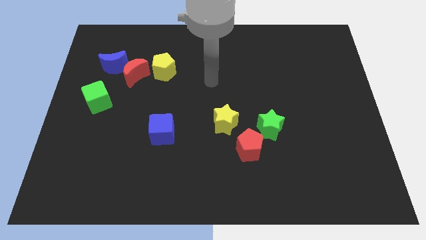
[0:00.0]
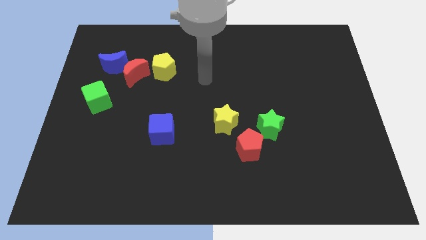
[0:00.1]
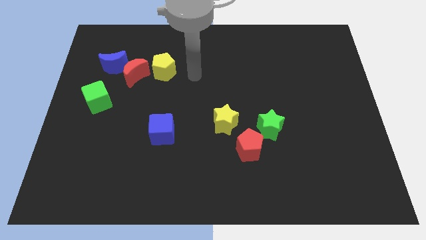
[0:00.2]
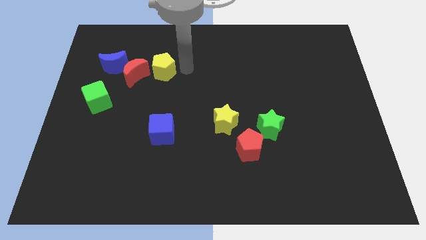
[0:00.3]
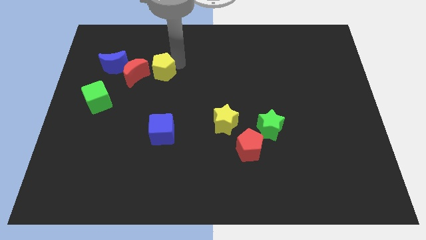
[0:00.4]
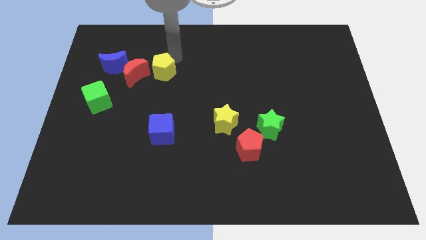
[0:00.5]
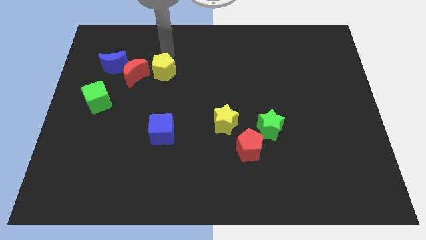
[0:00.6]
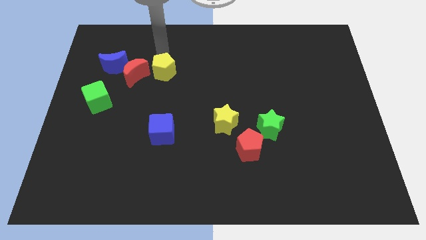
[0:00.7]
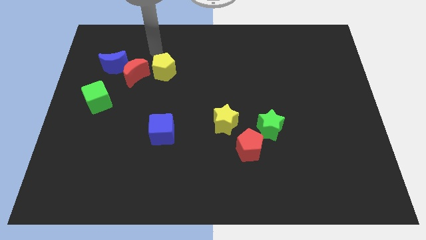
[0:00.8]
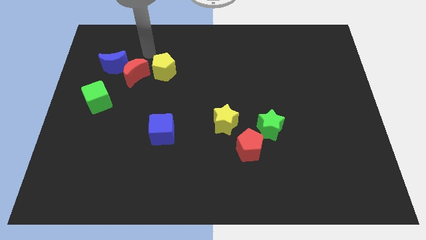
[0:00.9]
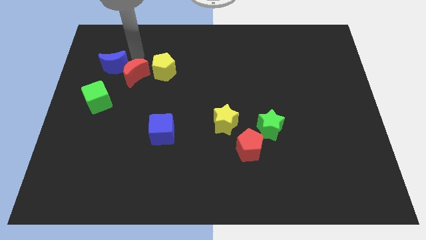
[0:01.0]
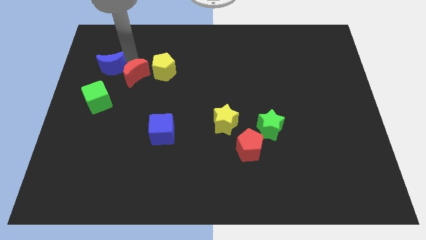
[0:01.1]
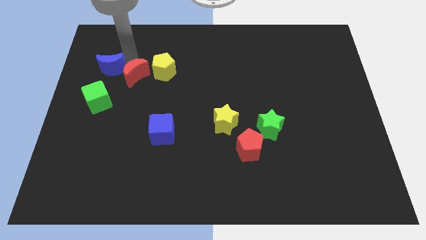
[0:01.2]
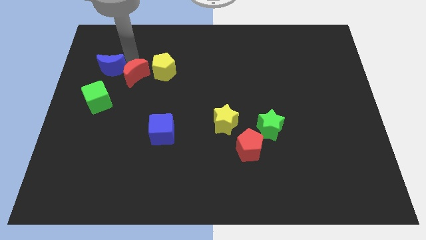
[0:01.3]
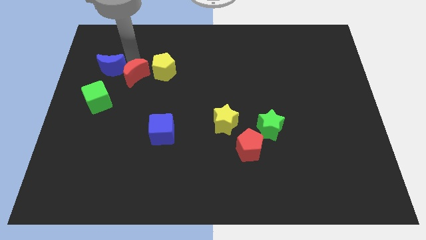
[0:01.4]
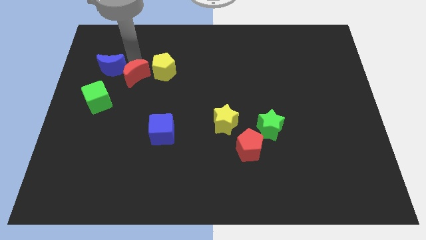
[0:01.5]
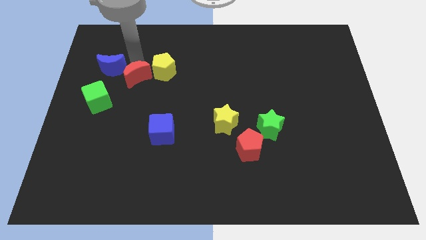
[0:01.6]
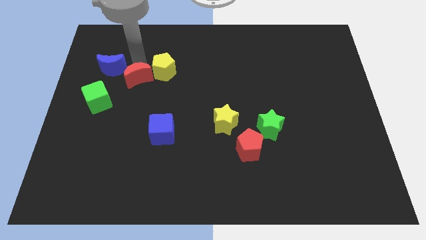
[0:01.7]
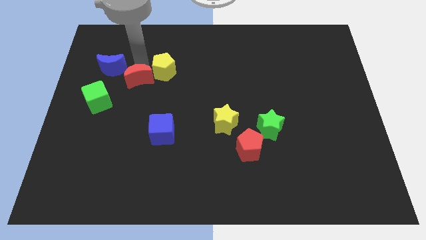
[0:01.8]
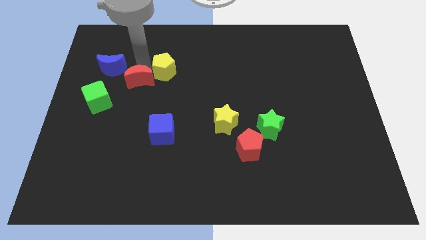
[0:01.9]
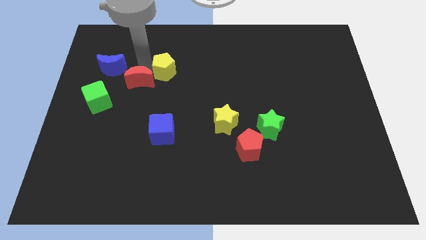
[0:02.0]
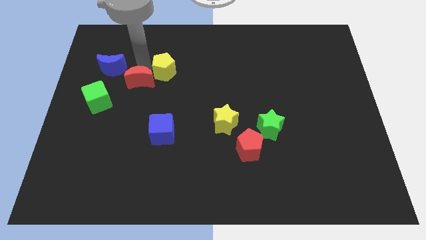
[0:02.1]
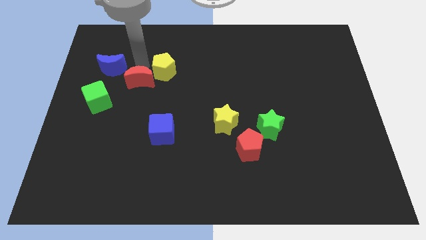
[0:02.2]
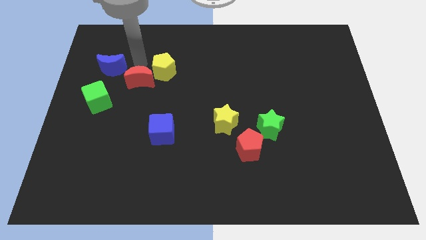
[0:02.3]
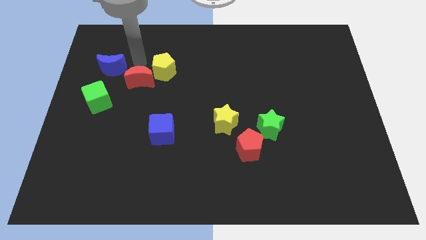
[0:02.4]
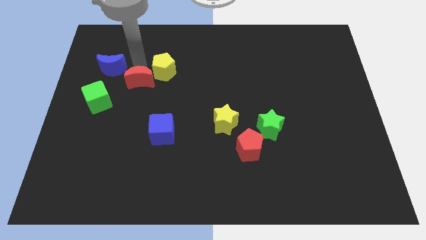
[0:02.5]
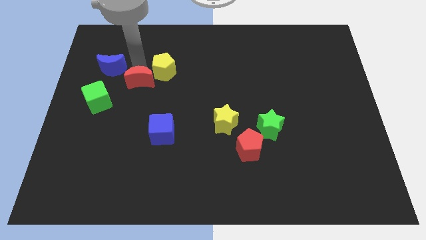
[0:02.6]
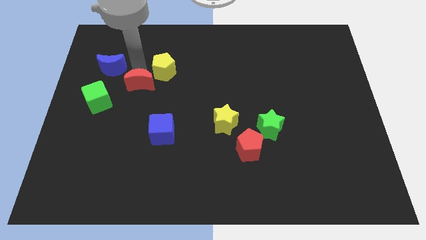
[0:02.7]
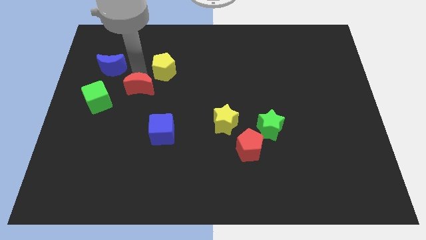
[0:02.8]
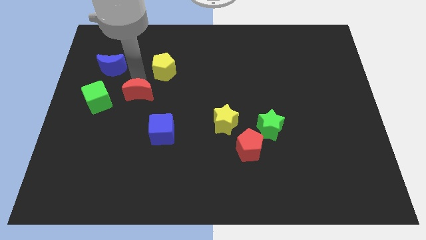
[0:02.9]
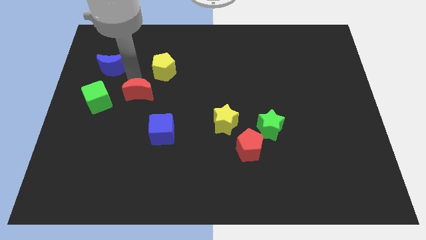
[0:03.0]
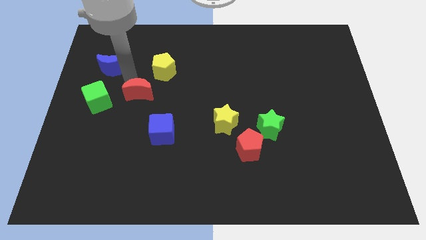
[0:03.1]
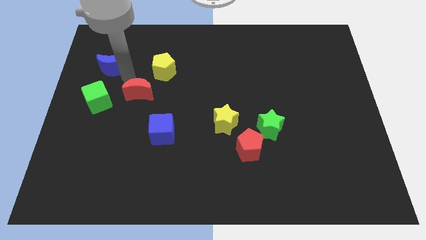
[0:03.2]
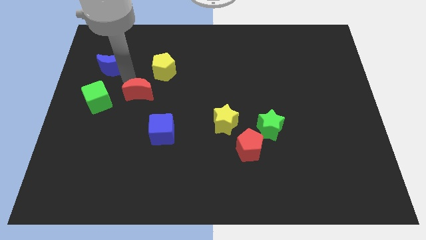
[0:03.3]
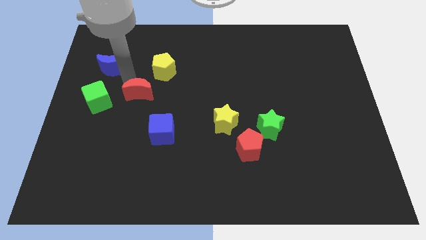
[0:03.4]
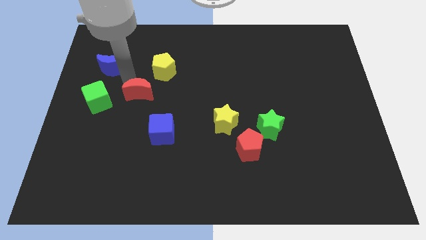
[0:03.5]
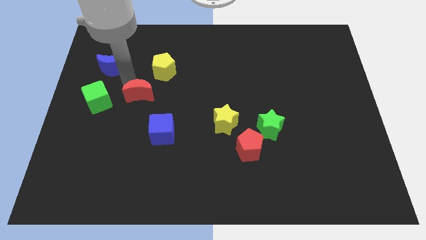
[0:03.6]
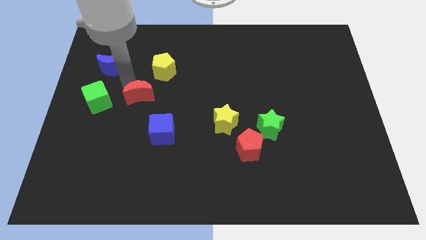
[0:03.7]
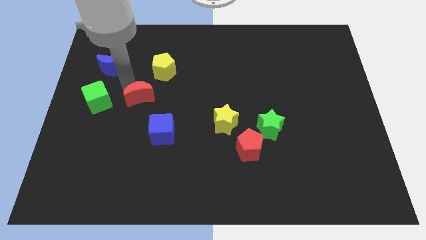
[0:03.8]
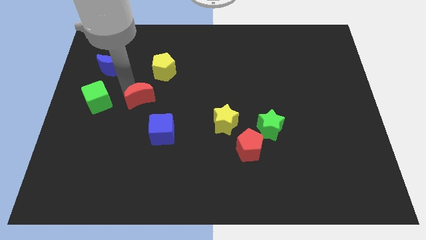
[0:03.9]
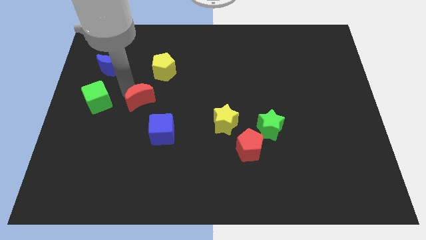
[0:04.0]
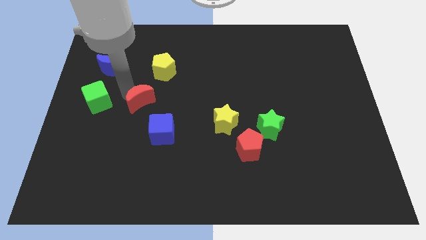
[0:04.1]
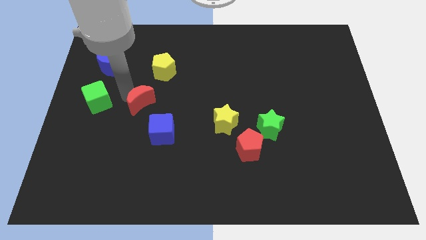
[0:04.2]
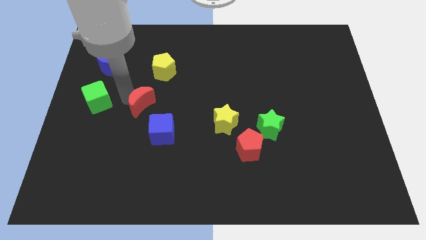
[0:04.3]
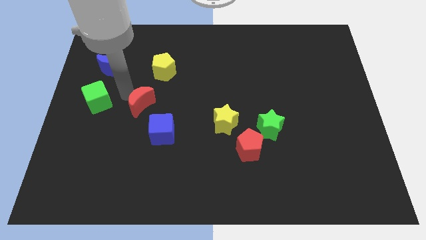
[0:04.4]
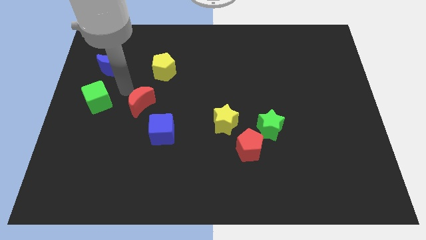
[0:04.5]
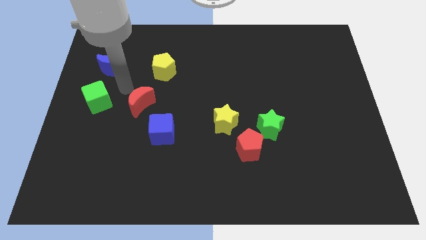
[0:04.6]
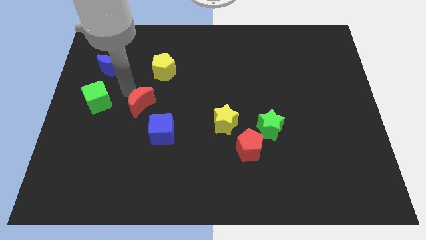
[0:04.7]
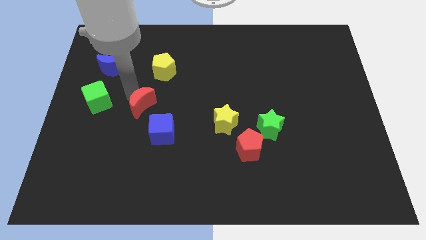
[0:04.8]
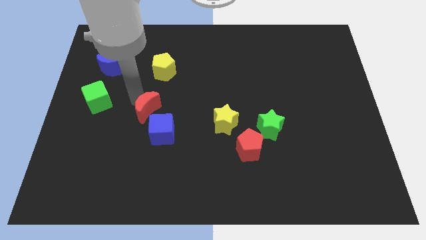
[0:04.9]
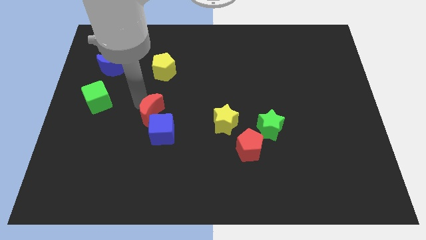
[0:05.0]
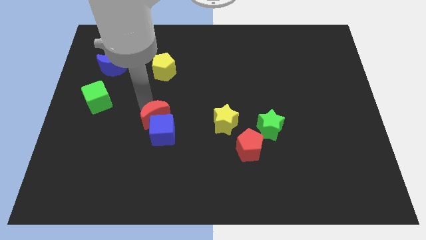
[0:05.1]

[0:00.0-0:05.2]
push the red moon next to the blue cube

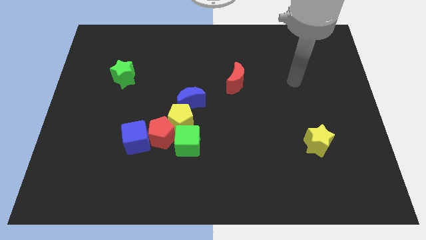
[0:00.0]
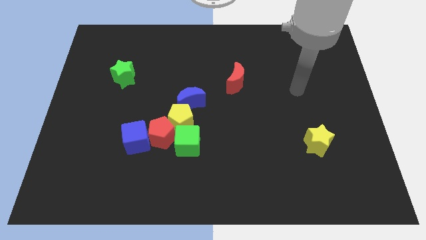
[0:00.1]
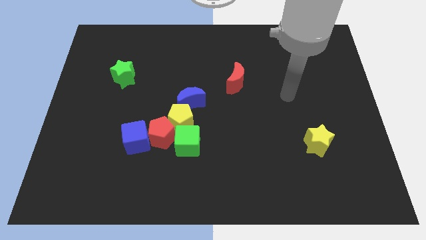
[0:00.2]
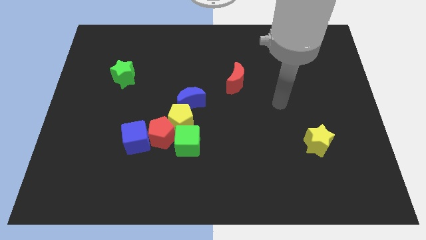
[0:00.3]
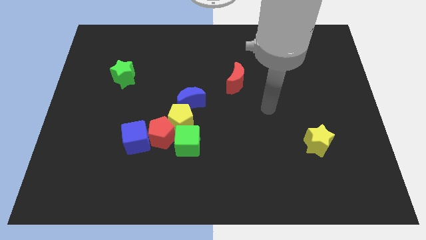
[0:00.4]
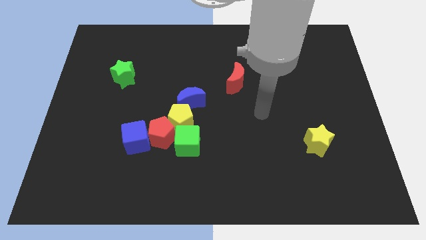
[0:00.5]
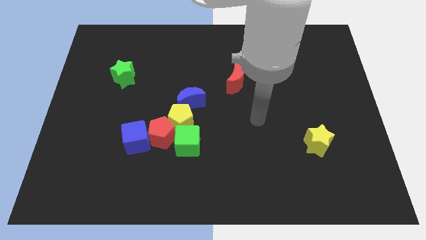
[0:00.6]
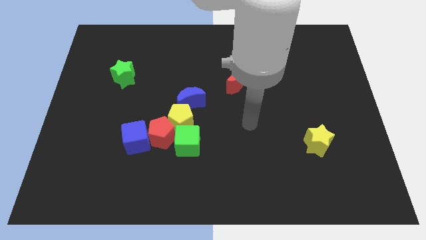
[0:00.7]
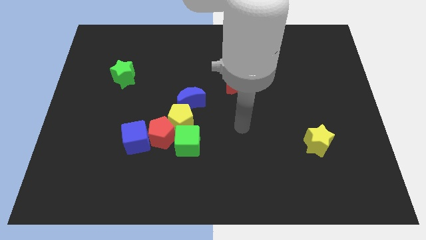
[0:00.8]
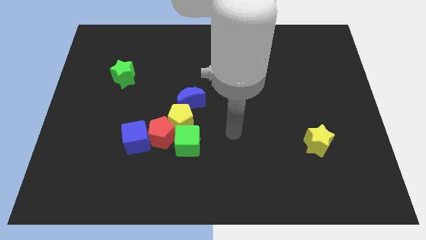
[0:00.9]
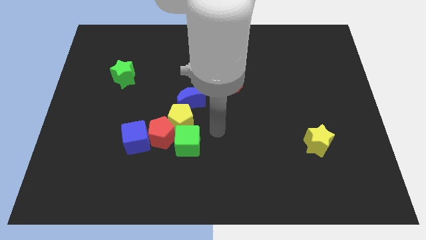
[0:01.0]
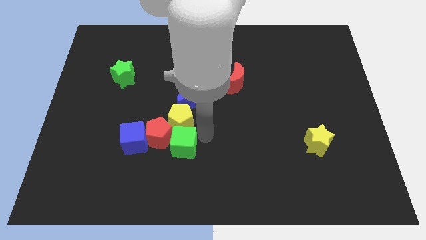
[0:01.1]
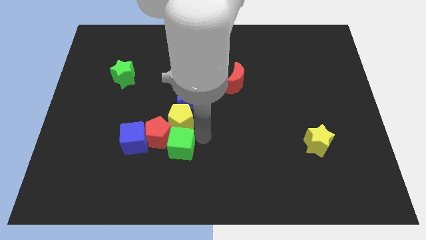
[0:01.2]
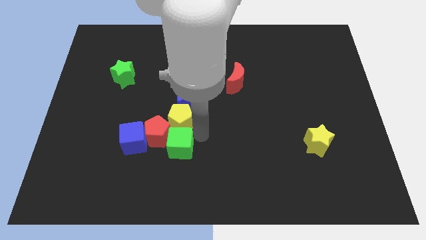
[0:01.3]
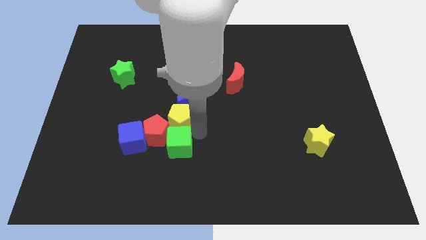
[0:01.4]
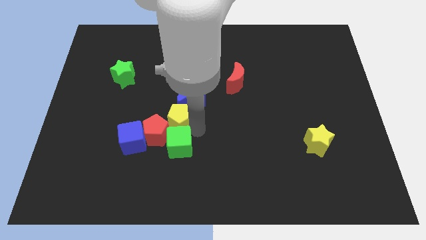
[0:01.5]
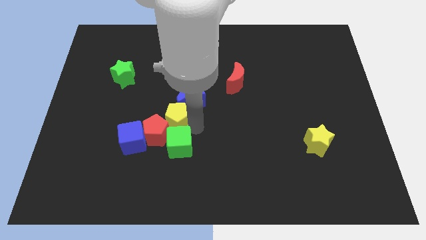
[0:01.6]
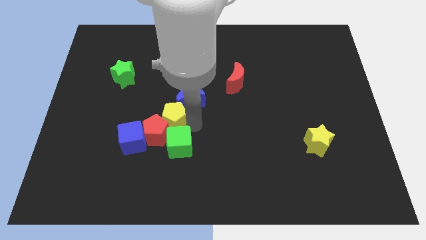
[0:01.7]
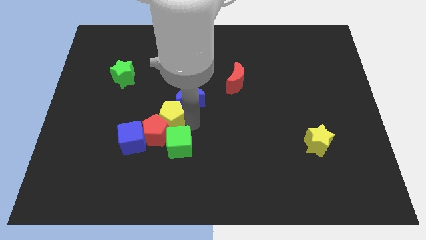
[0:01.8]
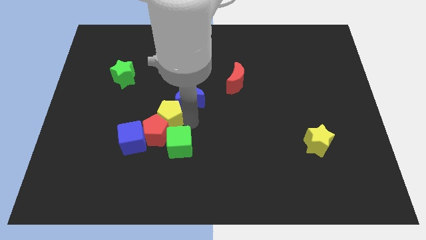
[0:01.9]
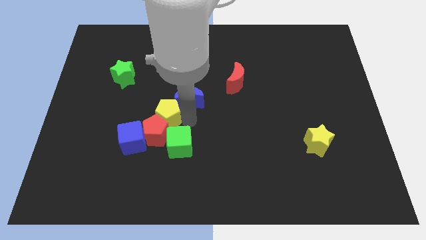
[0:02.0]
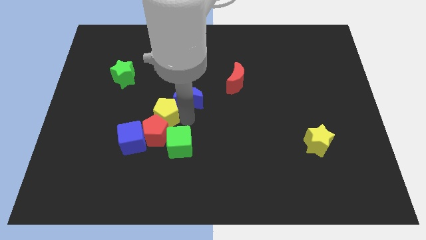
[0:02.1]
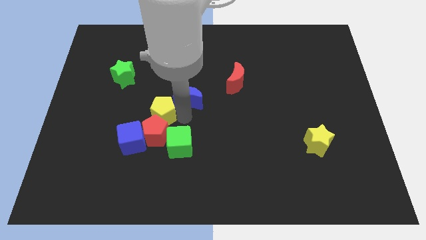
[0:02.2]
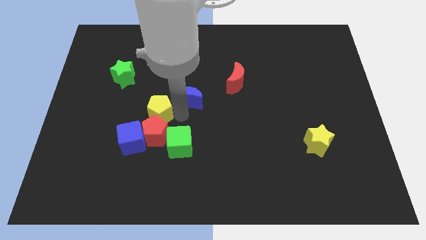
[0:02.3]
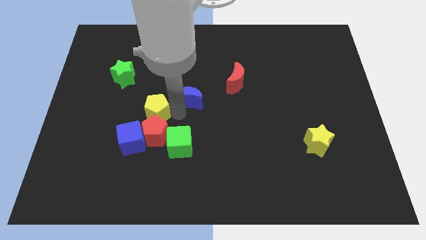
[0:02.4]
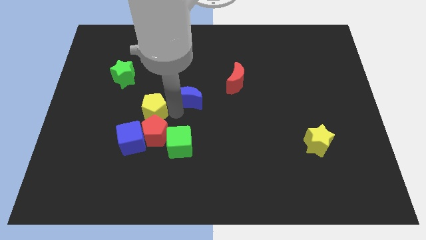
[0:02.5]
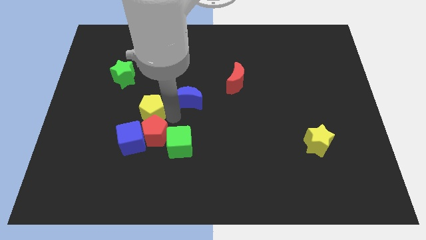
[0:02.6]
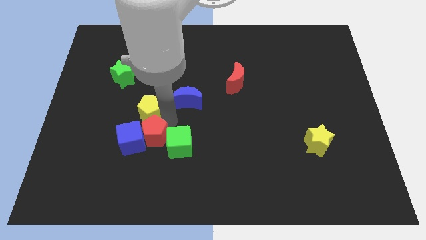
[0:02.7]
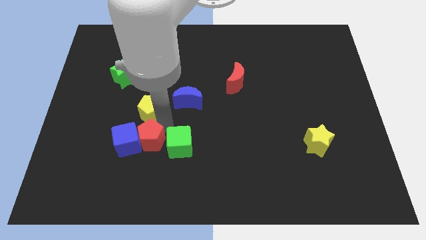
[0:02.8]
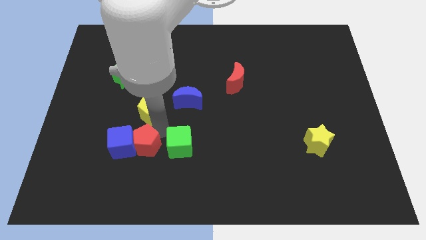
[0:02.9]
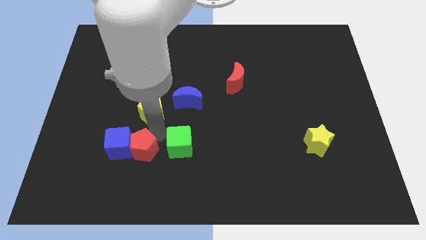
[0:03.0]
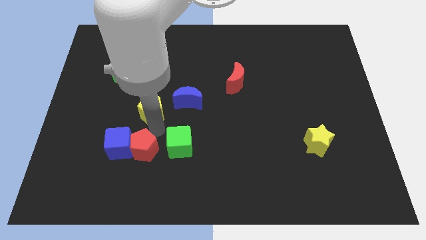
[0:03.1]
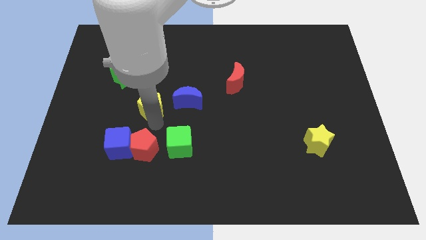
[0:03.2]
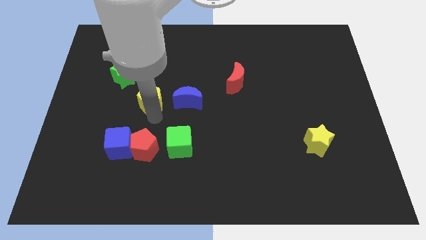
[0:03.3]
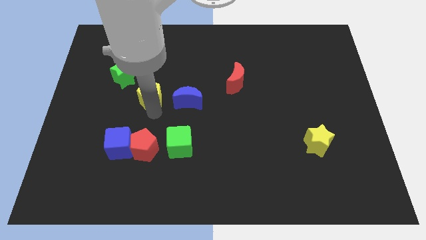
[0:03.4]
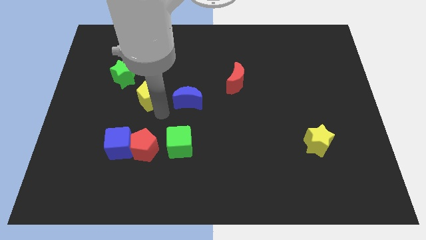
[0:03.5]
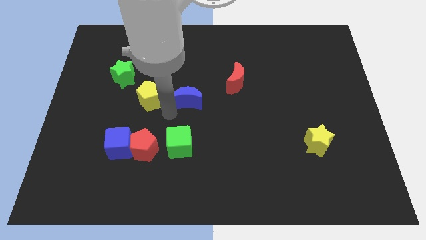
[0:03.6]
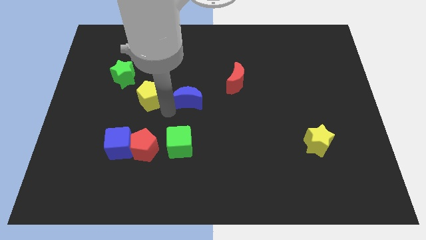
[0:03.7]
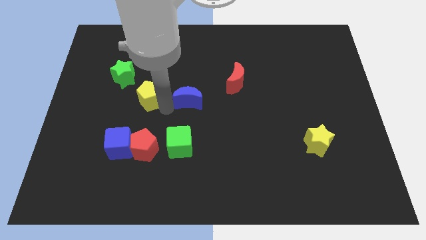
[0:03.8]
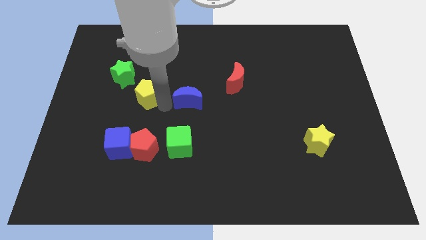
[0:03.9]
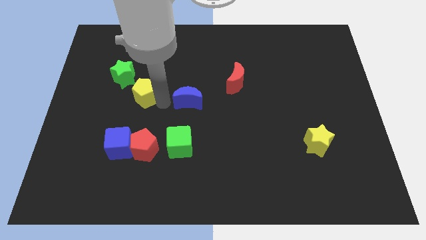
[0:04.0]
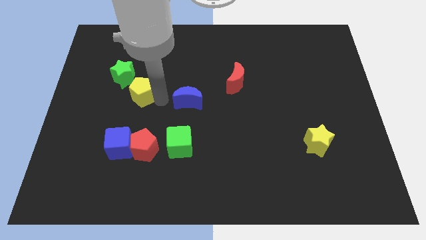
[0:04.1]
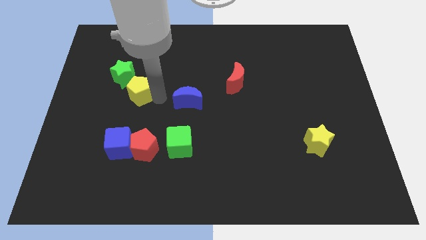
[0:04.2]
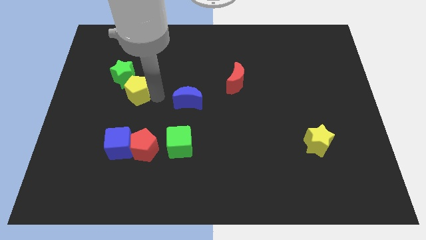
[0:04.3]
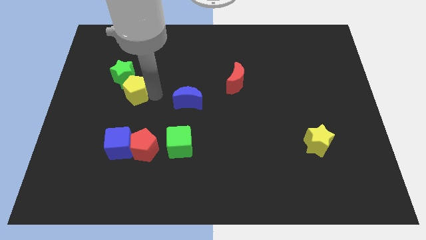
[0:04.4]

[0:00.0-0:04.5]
push the yellow pentagon next to the green star
